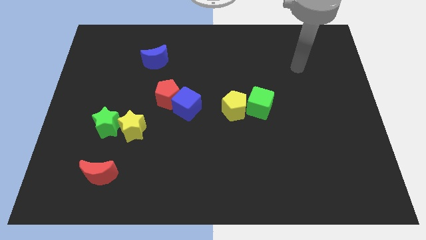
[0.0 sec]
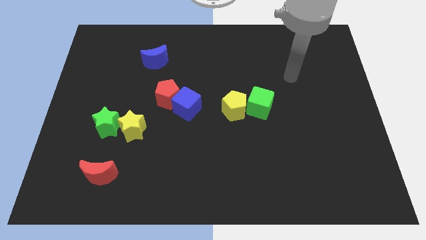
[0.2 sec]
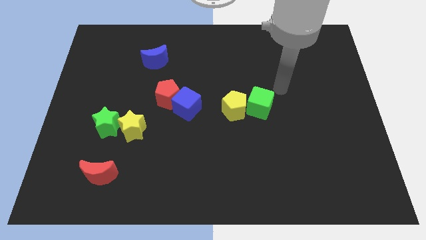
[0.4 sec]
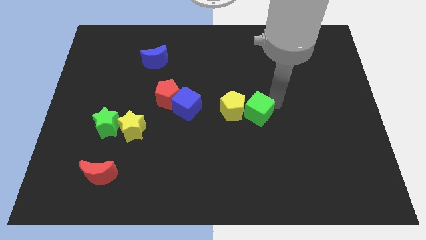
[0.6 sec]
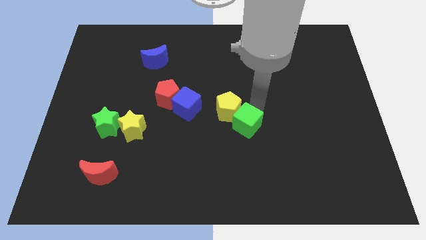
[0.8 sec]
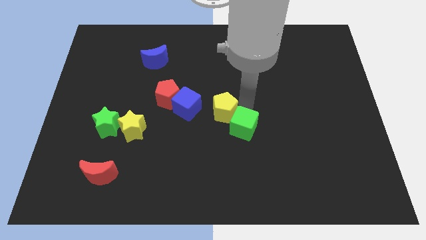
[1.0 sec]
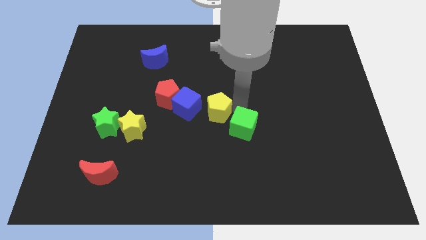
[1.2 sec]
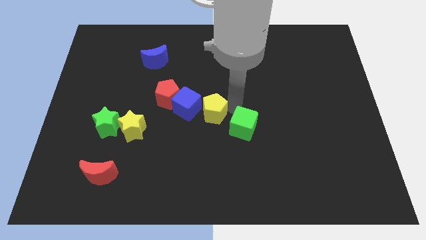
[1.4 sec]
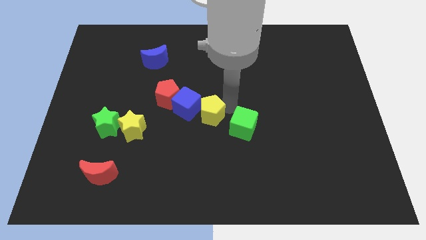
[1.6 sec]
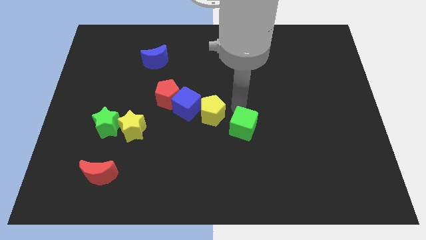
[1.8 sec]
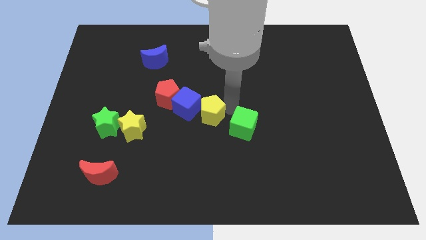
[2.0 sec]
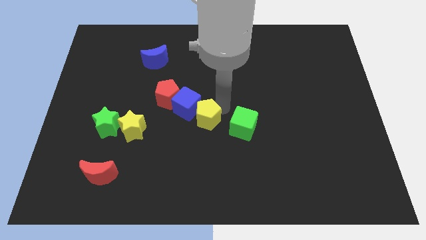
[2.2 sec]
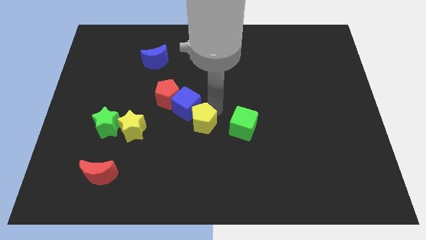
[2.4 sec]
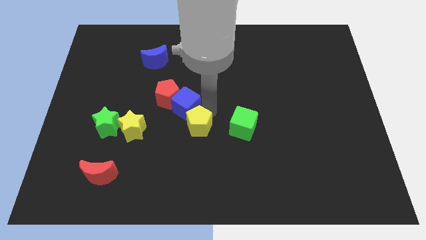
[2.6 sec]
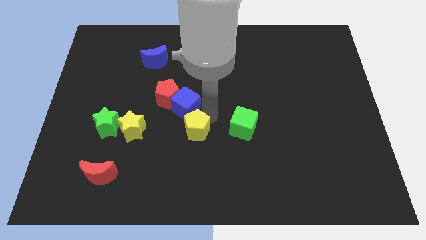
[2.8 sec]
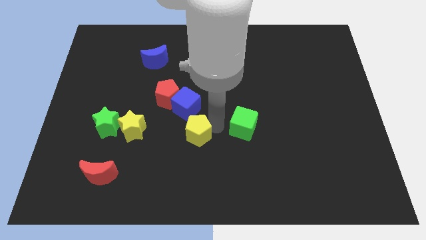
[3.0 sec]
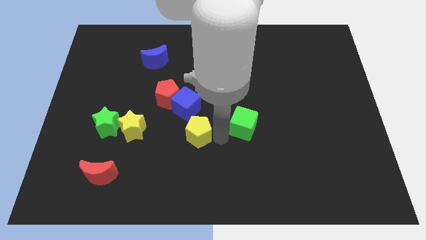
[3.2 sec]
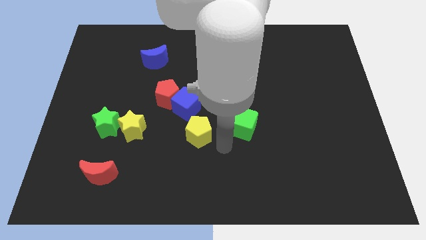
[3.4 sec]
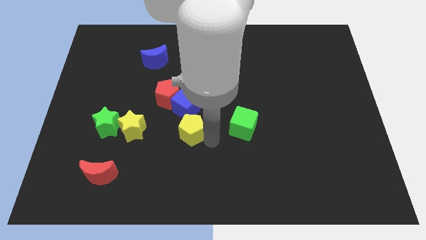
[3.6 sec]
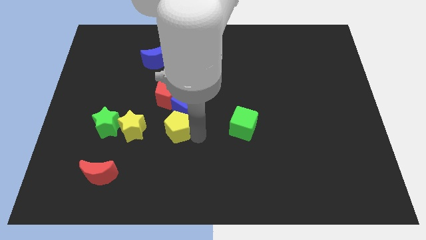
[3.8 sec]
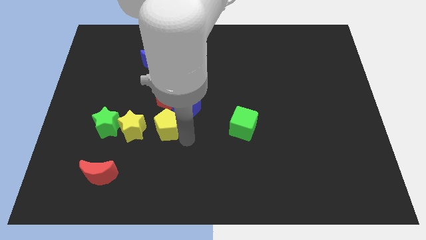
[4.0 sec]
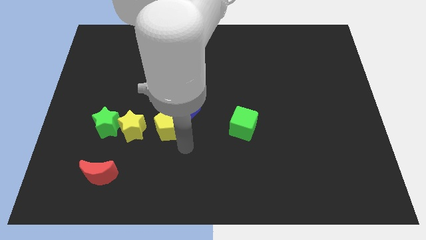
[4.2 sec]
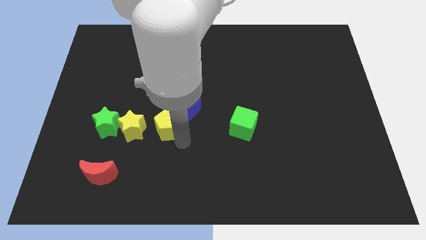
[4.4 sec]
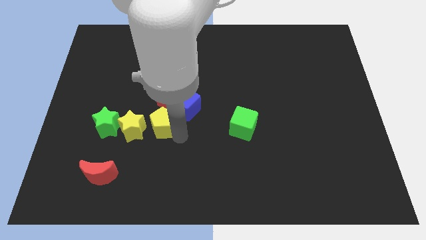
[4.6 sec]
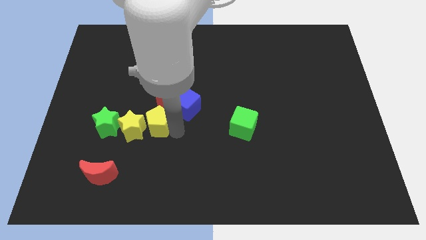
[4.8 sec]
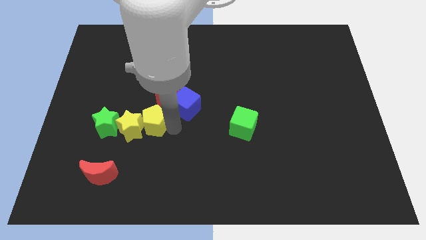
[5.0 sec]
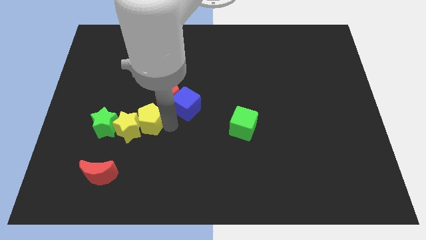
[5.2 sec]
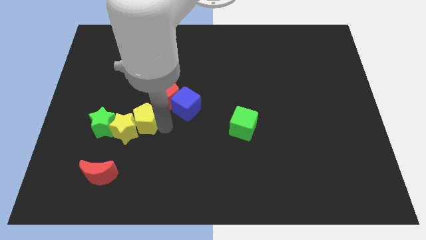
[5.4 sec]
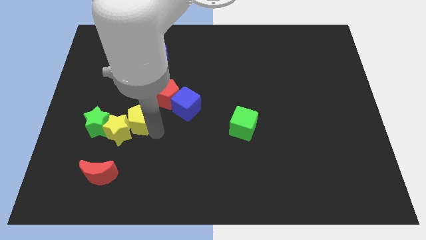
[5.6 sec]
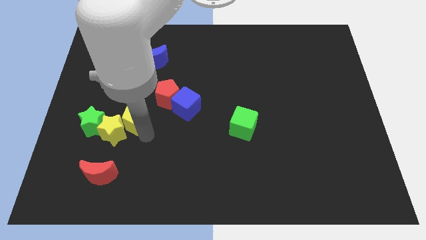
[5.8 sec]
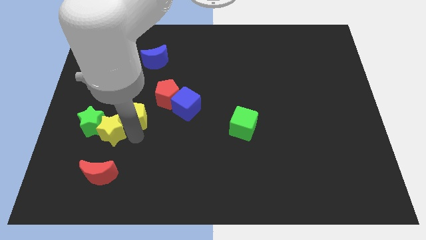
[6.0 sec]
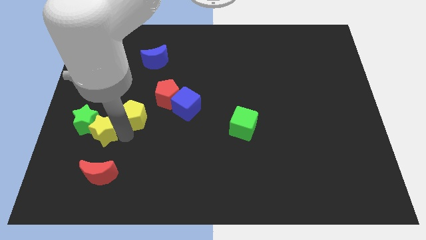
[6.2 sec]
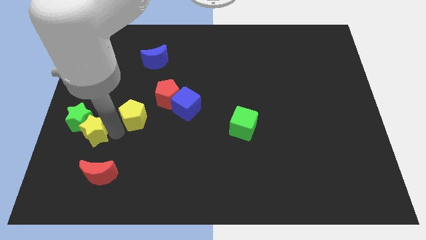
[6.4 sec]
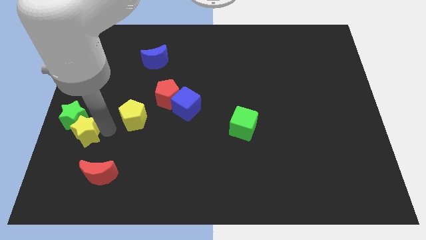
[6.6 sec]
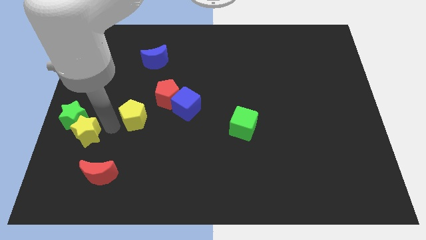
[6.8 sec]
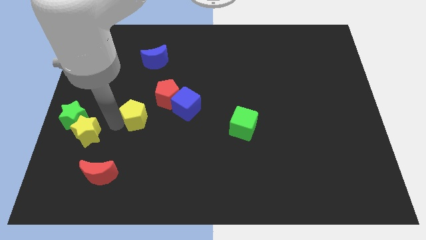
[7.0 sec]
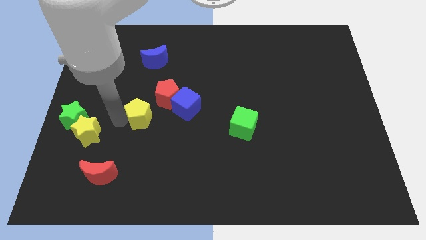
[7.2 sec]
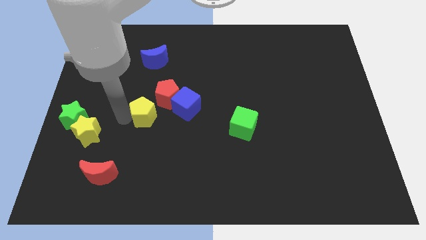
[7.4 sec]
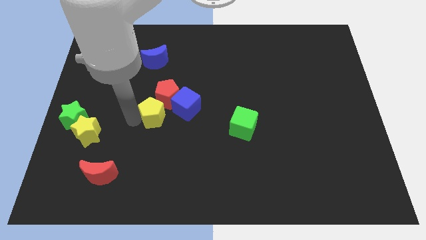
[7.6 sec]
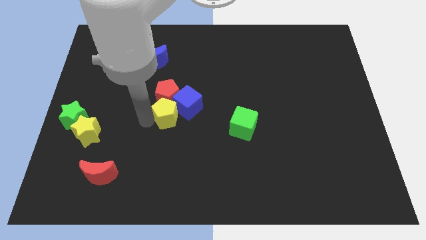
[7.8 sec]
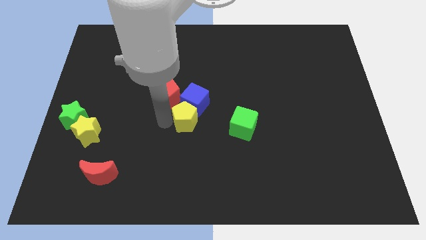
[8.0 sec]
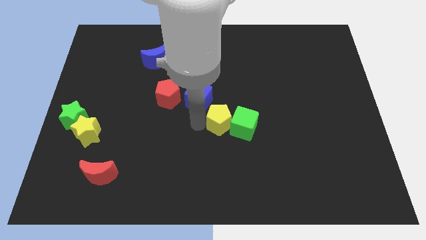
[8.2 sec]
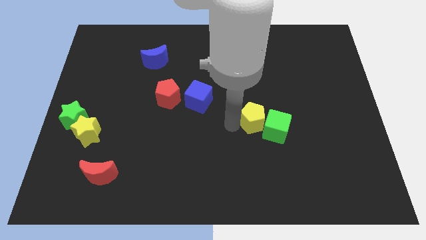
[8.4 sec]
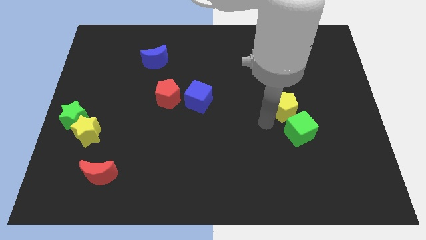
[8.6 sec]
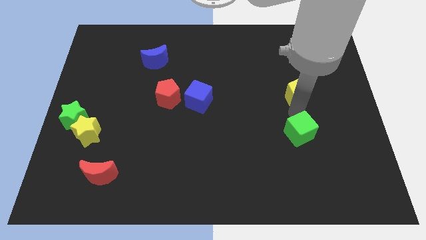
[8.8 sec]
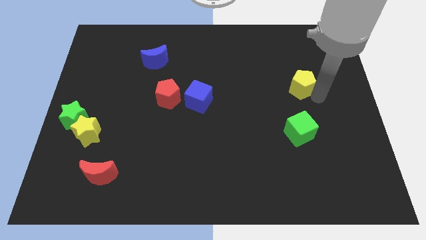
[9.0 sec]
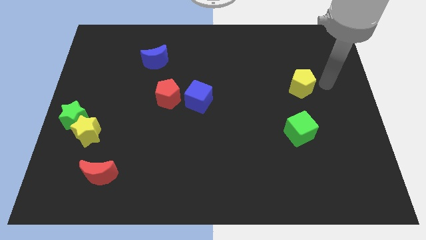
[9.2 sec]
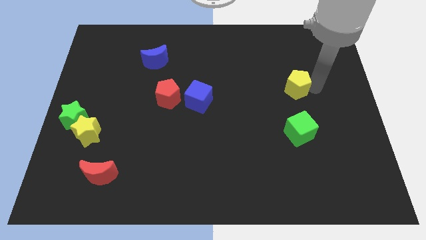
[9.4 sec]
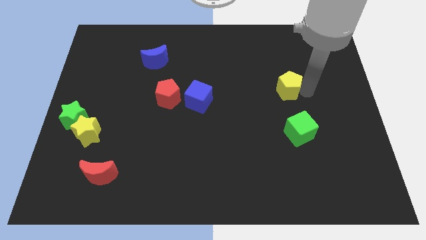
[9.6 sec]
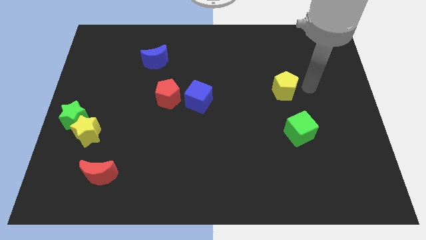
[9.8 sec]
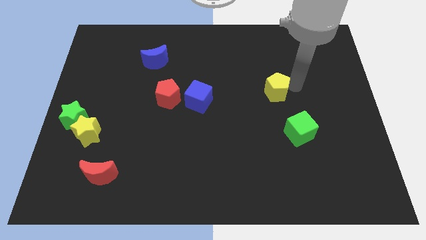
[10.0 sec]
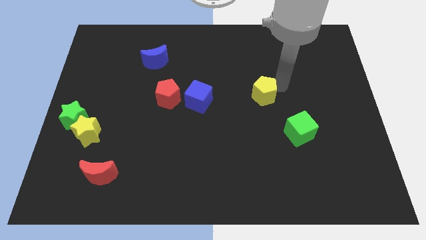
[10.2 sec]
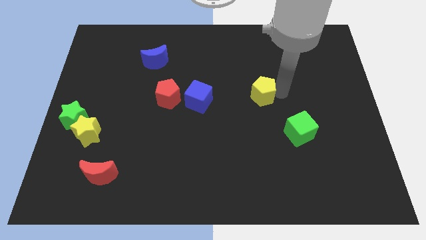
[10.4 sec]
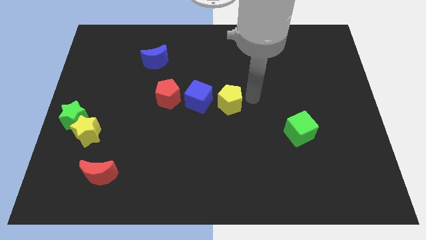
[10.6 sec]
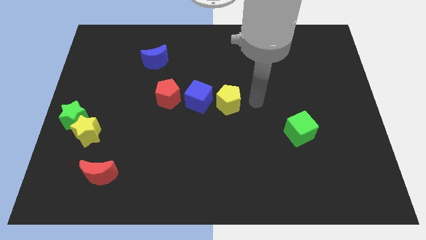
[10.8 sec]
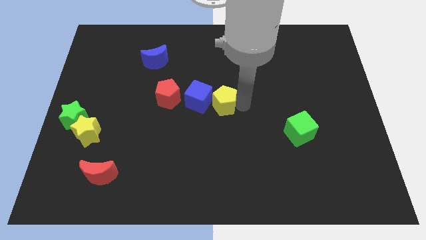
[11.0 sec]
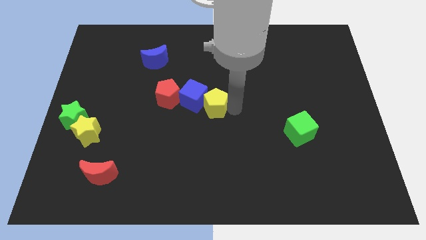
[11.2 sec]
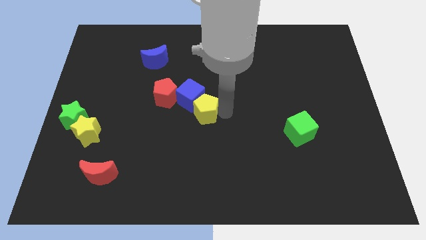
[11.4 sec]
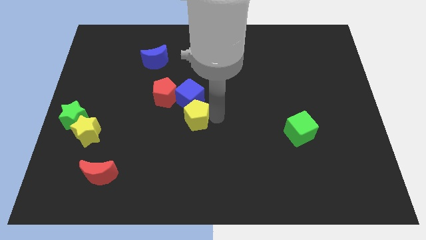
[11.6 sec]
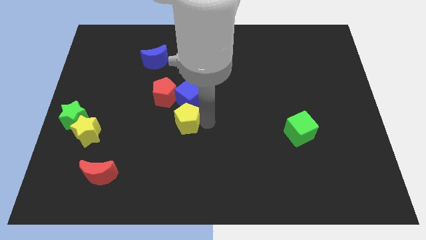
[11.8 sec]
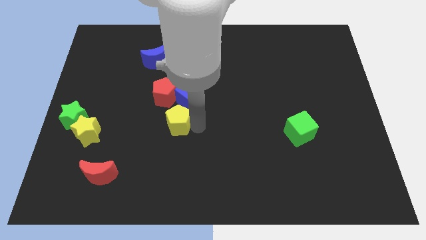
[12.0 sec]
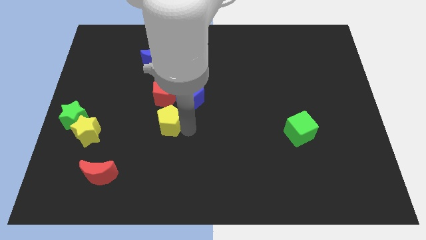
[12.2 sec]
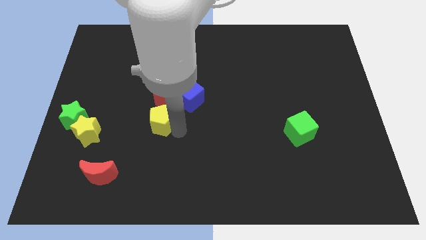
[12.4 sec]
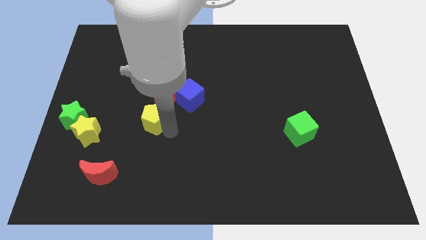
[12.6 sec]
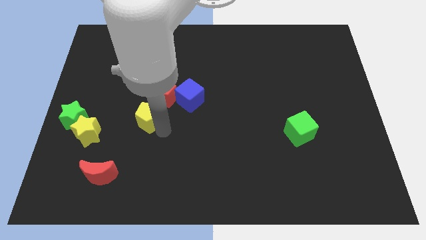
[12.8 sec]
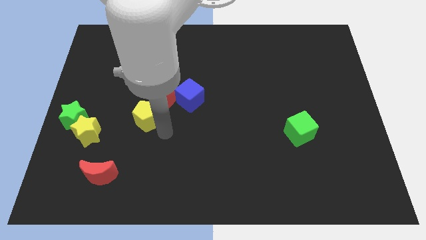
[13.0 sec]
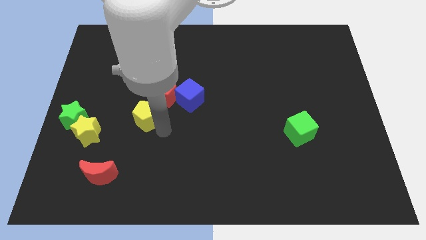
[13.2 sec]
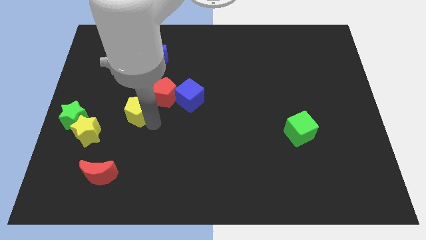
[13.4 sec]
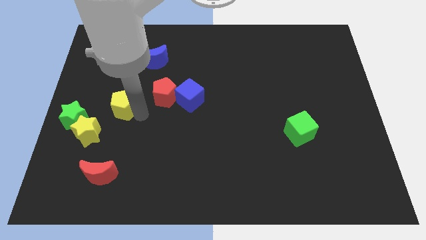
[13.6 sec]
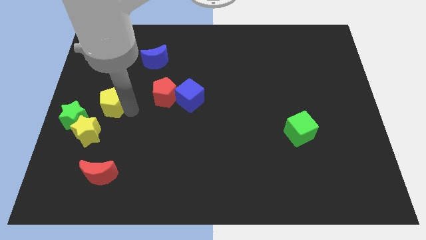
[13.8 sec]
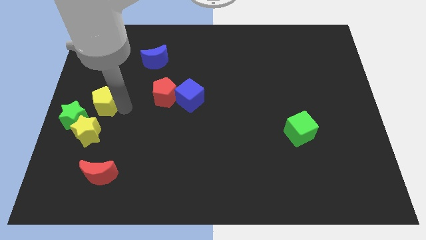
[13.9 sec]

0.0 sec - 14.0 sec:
move the yellow pentagon to the left side
